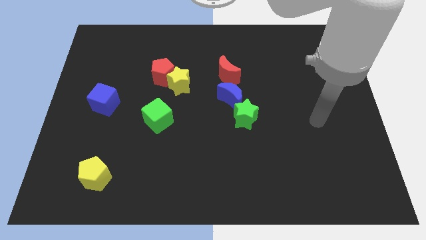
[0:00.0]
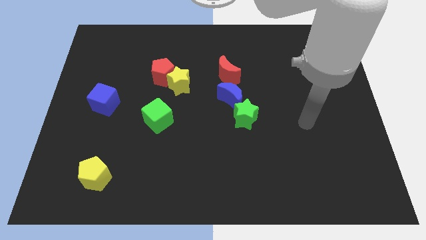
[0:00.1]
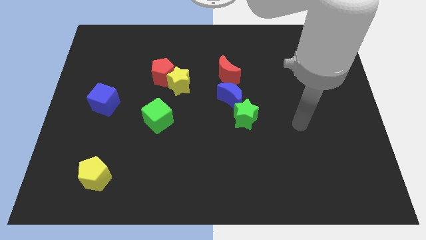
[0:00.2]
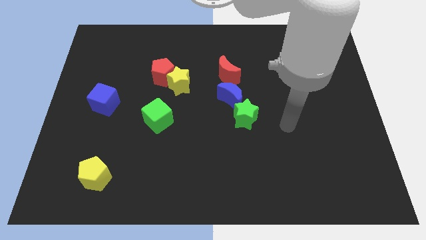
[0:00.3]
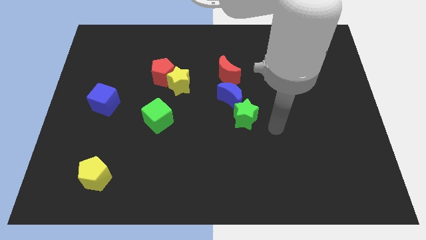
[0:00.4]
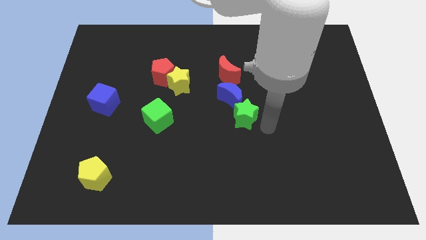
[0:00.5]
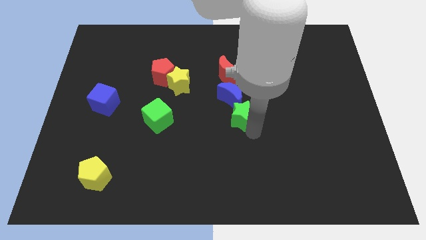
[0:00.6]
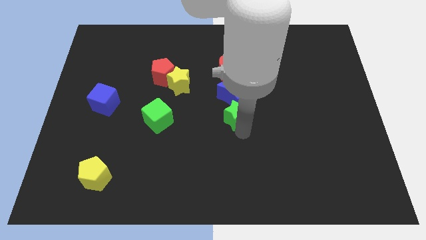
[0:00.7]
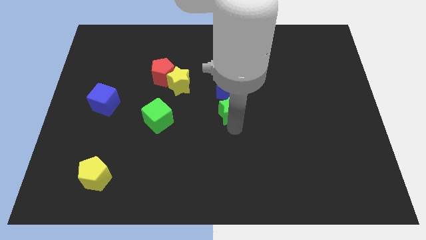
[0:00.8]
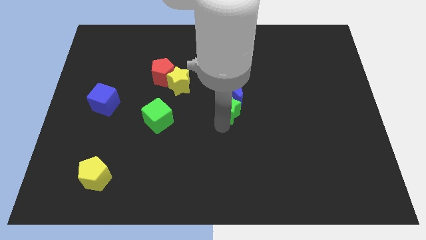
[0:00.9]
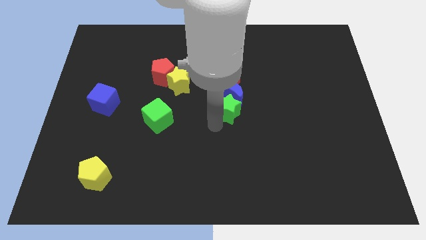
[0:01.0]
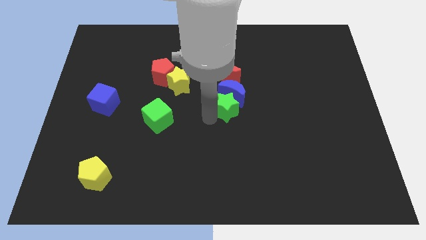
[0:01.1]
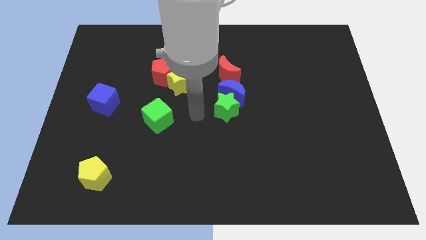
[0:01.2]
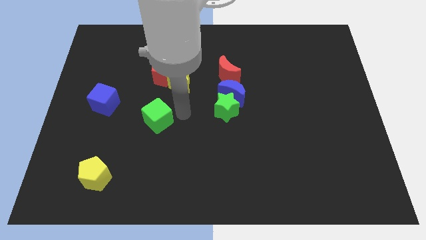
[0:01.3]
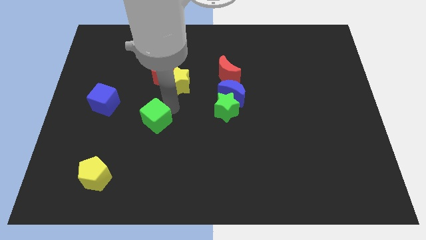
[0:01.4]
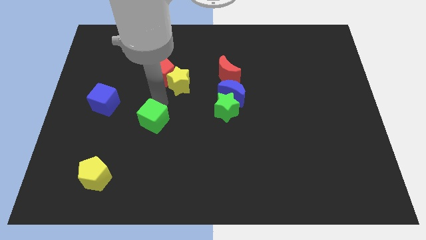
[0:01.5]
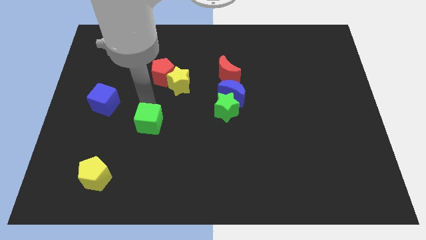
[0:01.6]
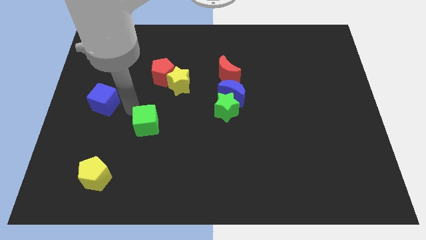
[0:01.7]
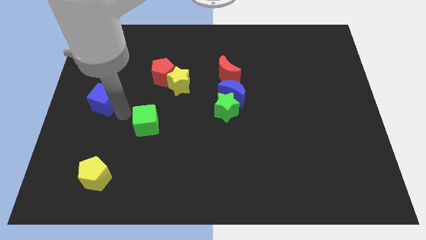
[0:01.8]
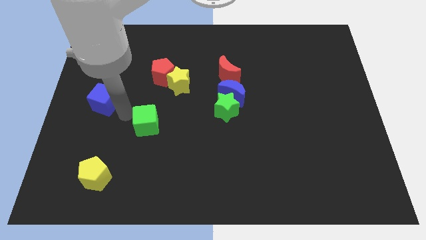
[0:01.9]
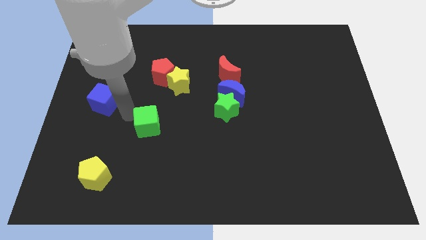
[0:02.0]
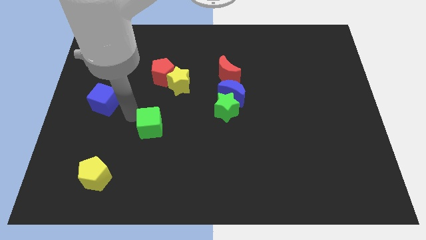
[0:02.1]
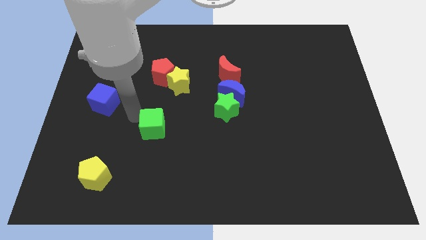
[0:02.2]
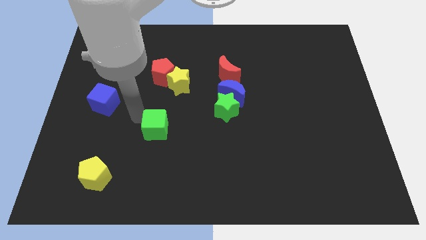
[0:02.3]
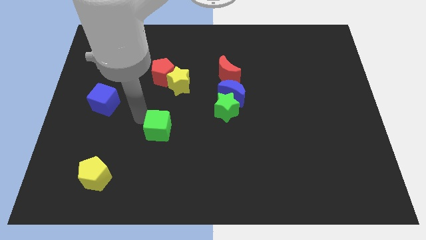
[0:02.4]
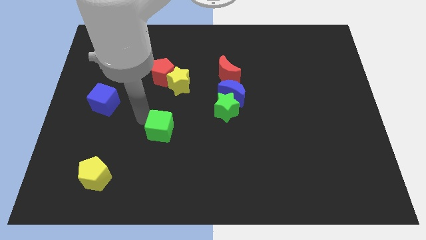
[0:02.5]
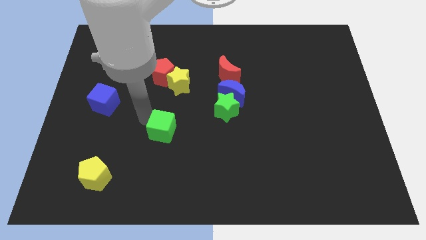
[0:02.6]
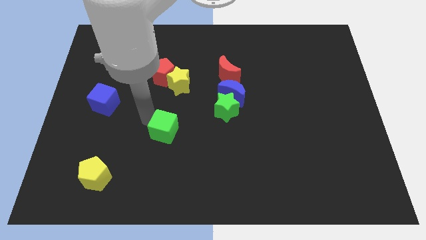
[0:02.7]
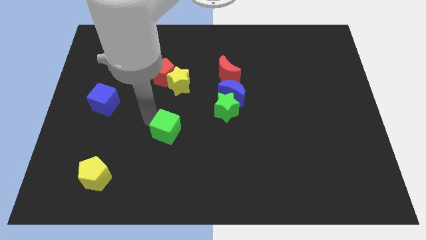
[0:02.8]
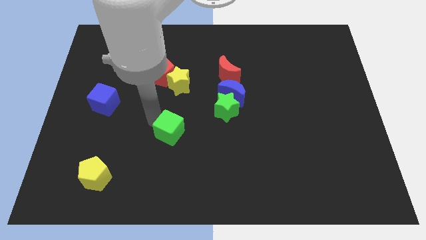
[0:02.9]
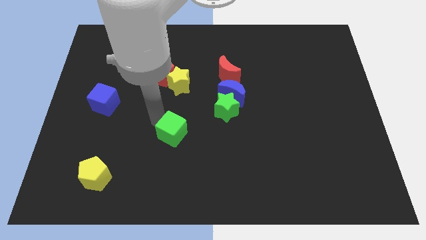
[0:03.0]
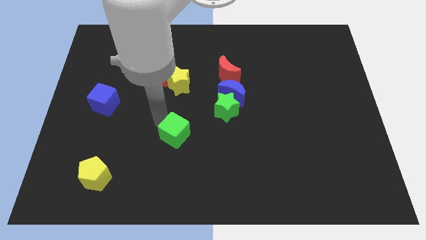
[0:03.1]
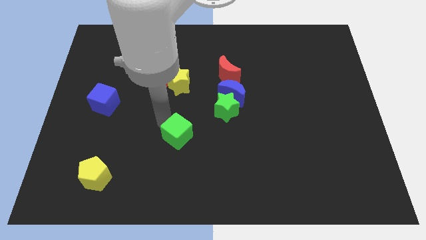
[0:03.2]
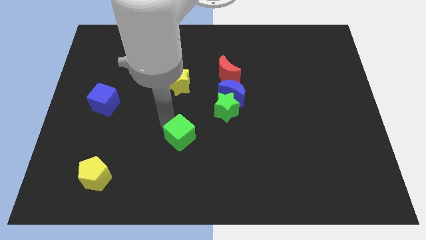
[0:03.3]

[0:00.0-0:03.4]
slightly move the green cube down and then right

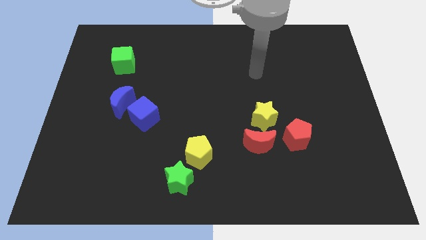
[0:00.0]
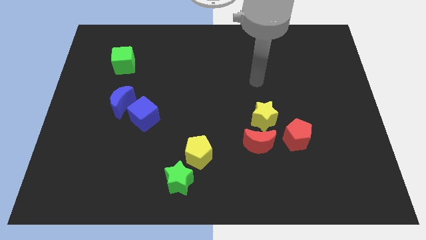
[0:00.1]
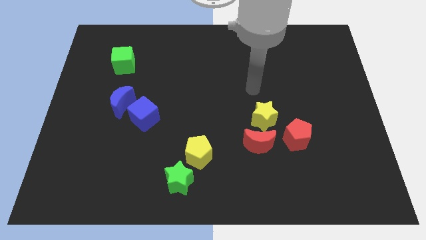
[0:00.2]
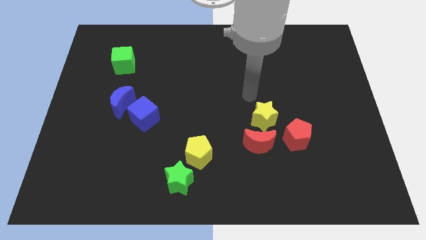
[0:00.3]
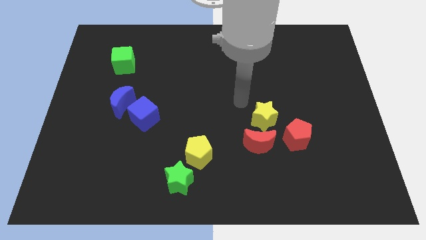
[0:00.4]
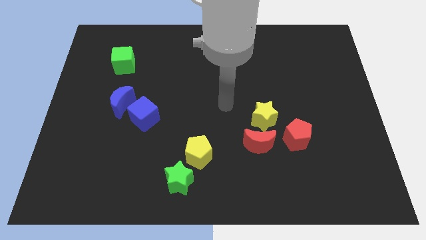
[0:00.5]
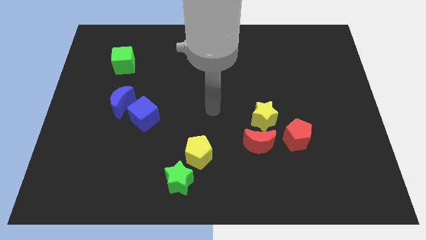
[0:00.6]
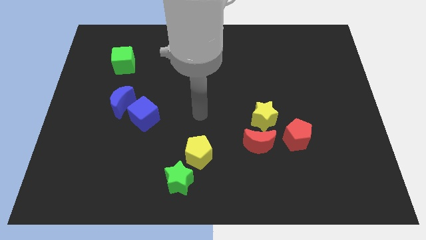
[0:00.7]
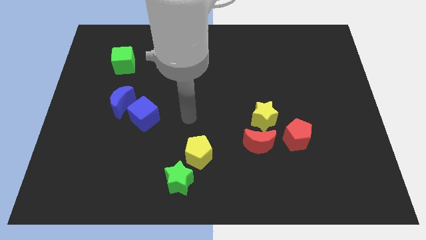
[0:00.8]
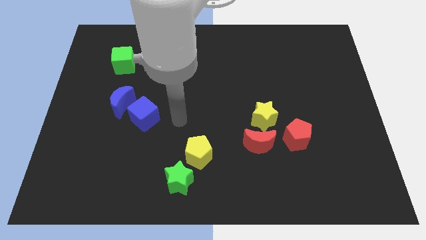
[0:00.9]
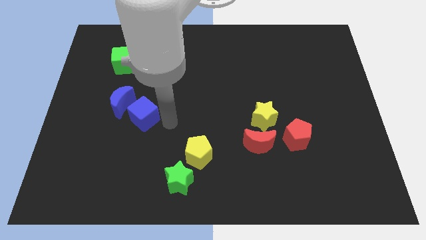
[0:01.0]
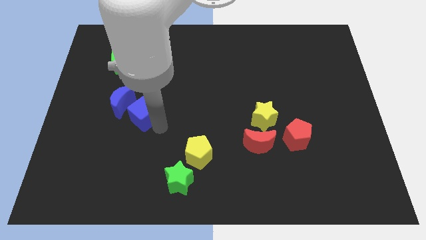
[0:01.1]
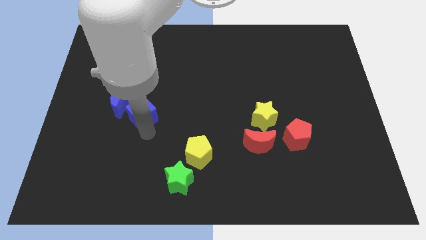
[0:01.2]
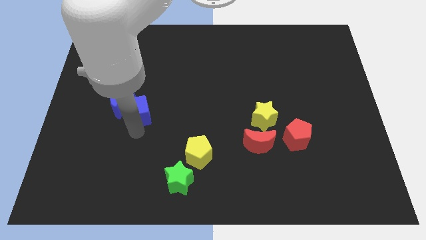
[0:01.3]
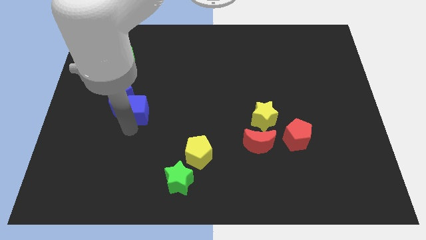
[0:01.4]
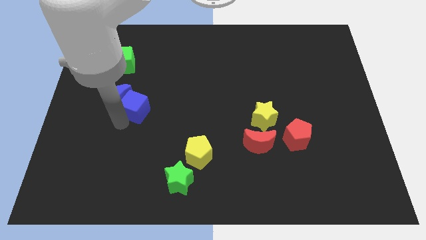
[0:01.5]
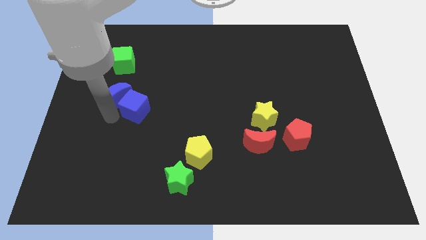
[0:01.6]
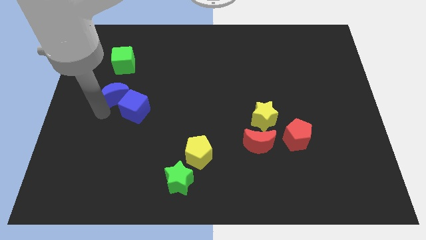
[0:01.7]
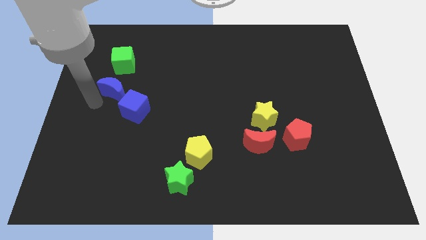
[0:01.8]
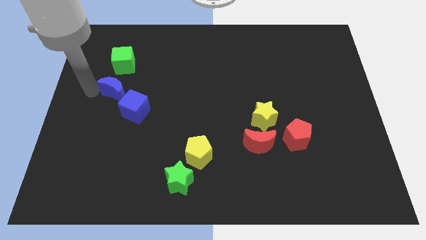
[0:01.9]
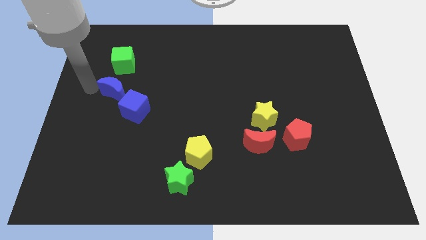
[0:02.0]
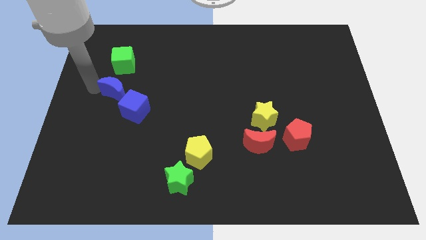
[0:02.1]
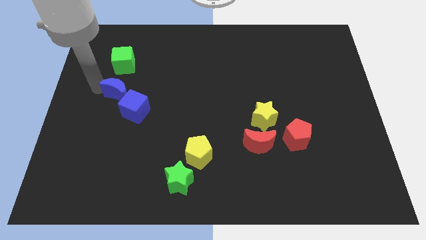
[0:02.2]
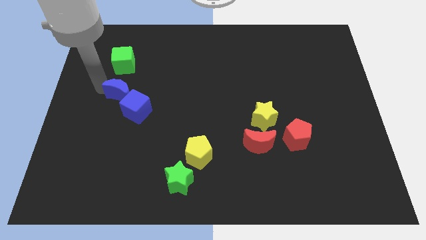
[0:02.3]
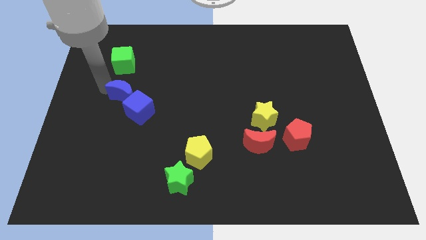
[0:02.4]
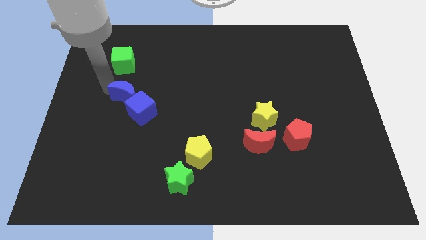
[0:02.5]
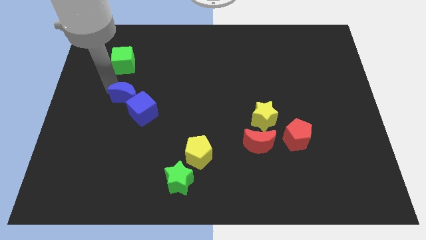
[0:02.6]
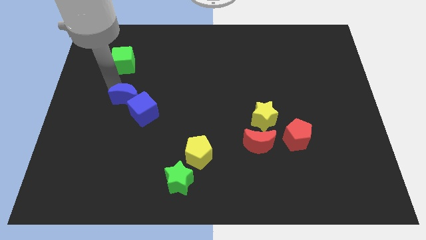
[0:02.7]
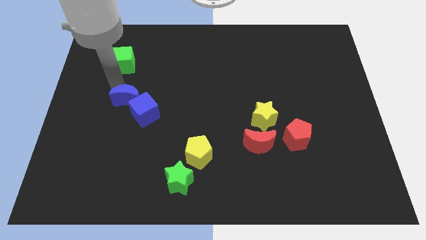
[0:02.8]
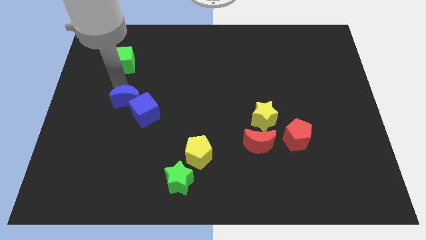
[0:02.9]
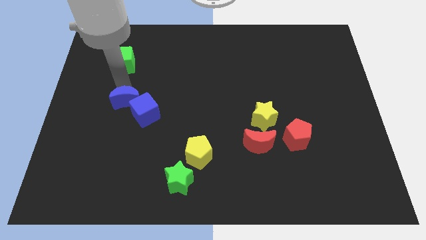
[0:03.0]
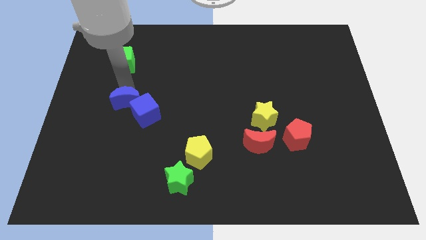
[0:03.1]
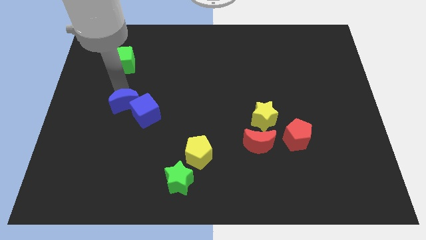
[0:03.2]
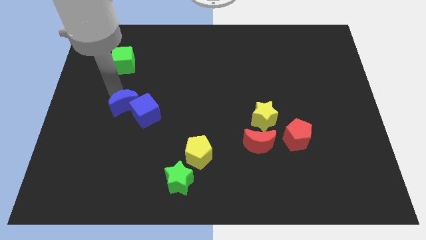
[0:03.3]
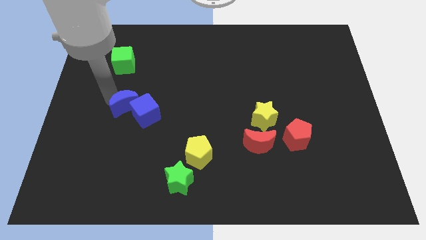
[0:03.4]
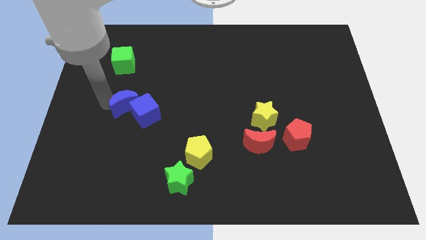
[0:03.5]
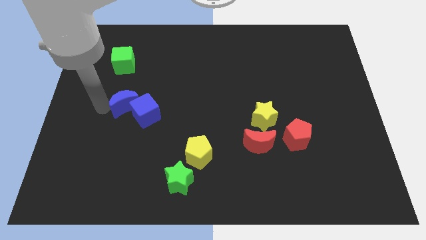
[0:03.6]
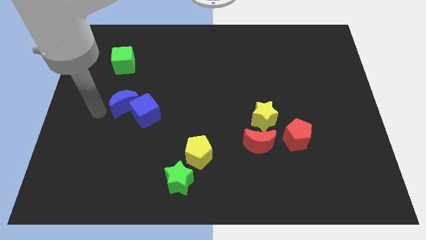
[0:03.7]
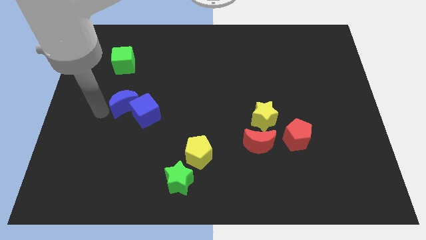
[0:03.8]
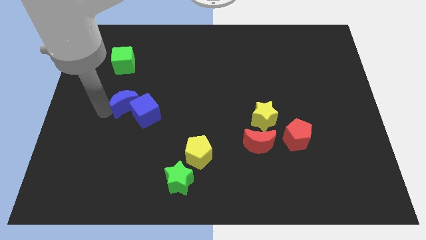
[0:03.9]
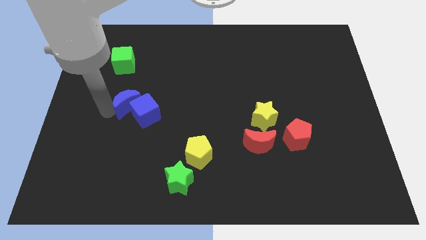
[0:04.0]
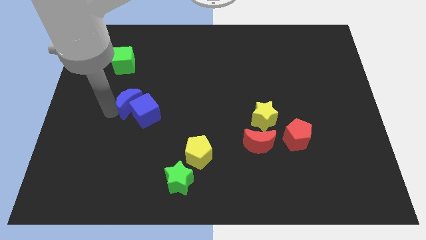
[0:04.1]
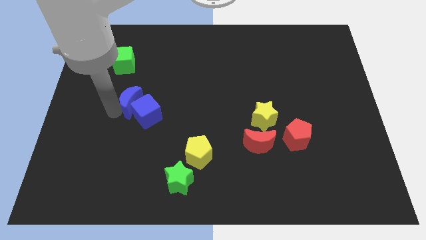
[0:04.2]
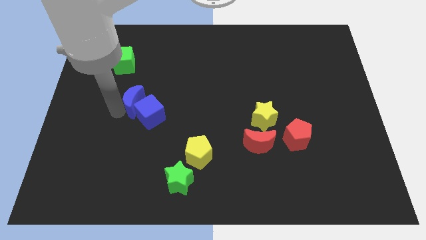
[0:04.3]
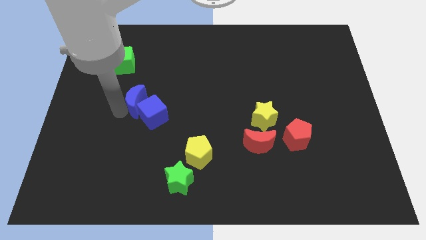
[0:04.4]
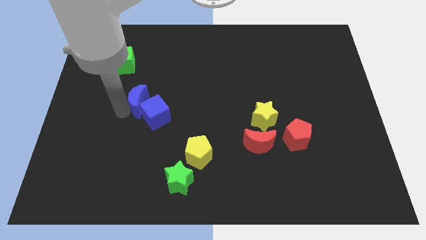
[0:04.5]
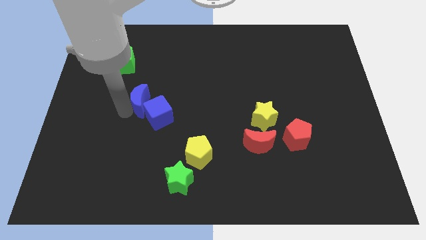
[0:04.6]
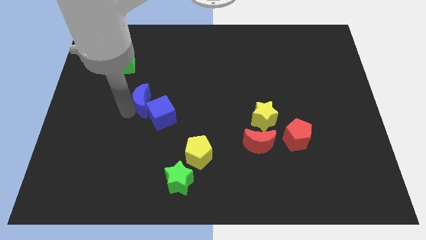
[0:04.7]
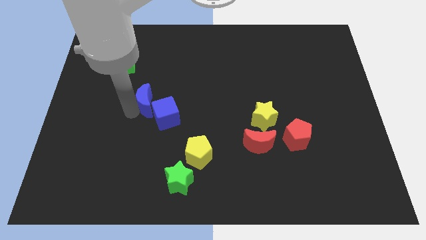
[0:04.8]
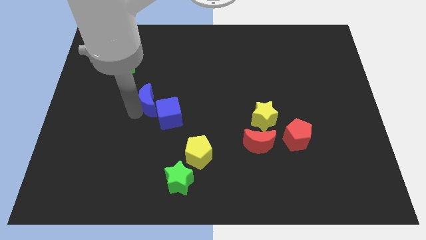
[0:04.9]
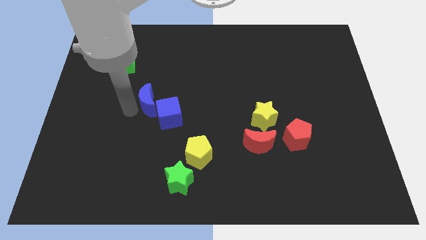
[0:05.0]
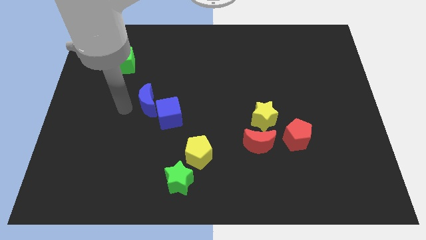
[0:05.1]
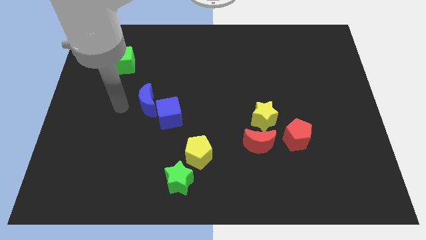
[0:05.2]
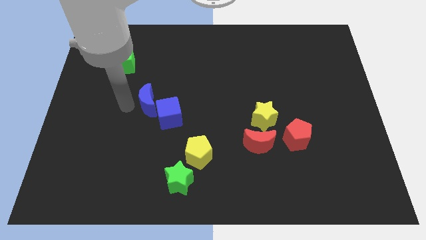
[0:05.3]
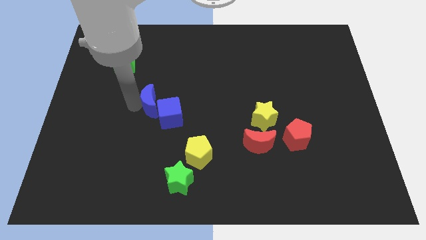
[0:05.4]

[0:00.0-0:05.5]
slightly slide the blue moon to the right
